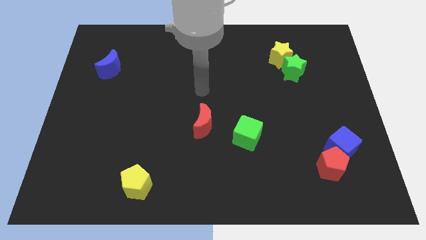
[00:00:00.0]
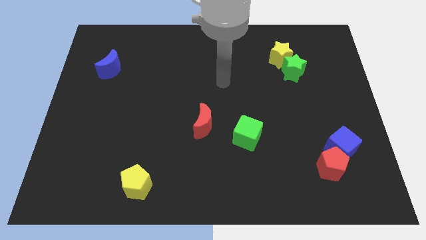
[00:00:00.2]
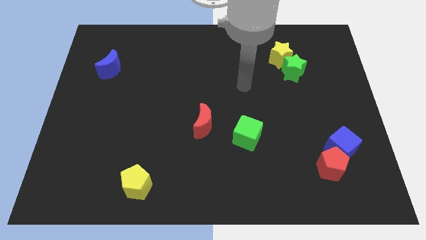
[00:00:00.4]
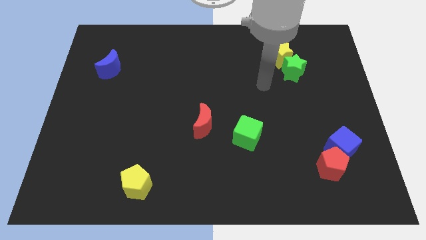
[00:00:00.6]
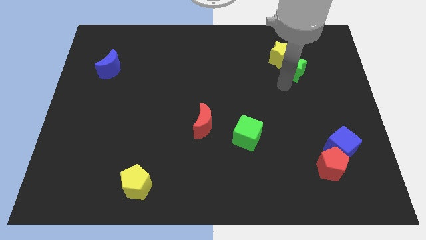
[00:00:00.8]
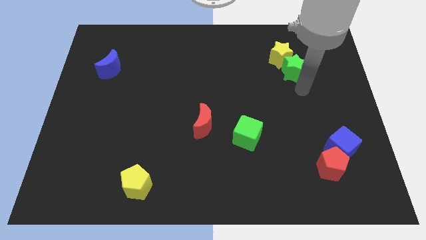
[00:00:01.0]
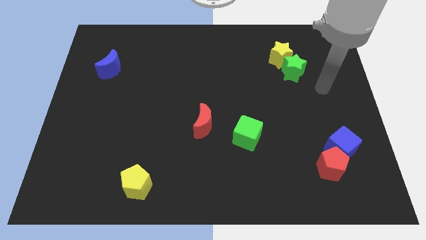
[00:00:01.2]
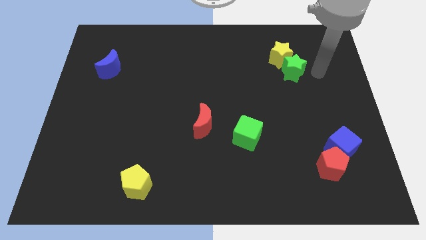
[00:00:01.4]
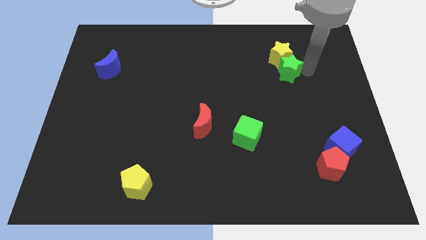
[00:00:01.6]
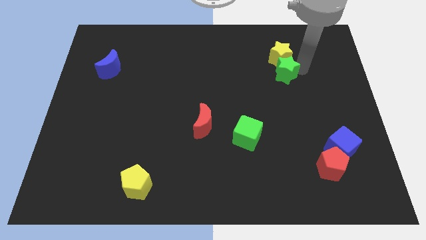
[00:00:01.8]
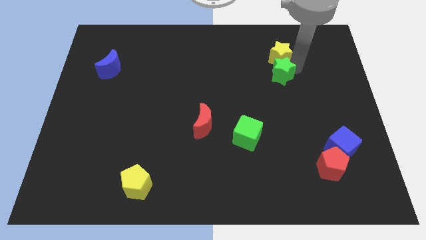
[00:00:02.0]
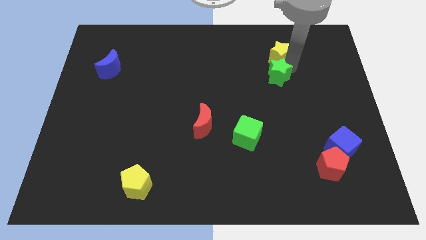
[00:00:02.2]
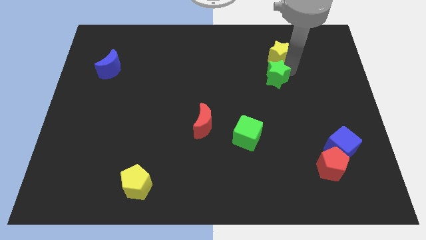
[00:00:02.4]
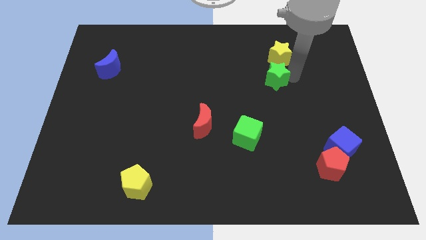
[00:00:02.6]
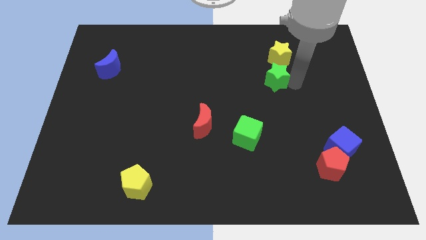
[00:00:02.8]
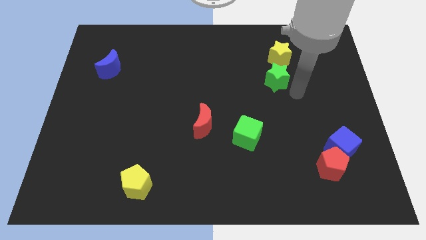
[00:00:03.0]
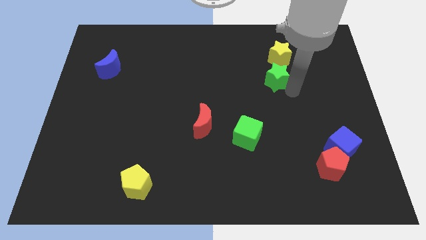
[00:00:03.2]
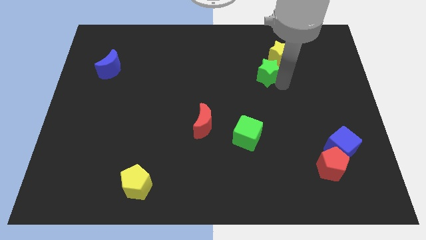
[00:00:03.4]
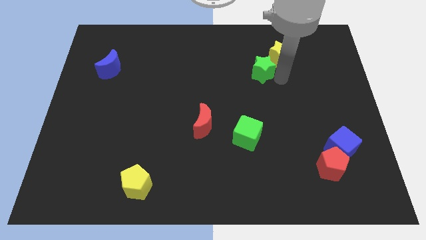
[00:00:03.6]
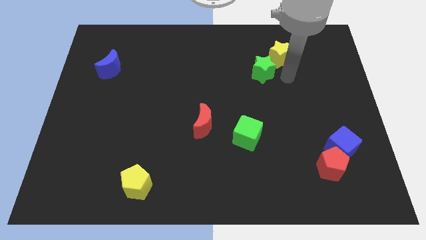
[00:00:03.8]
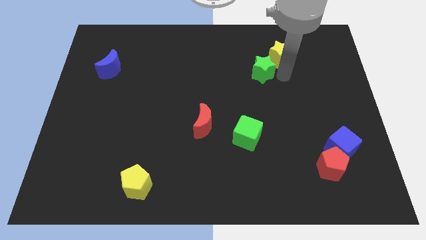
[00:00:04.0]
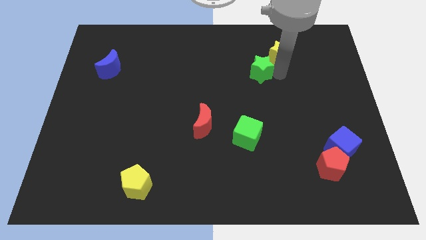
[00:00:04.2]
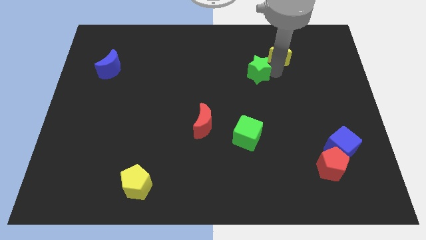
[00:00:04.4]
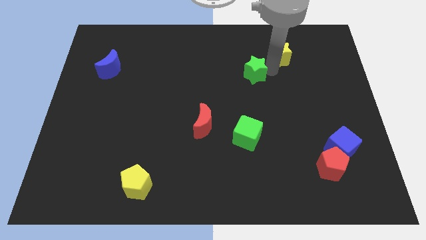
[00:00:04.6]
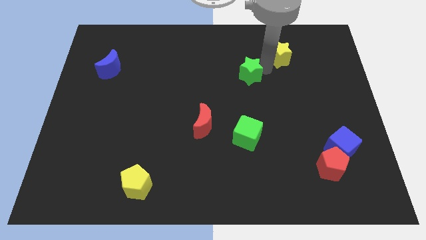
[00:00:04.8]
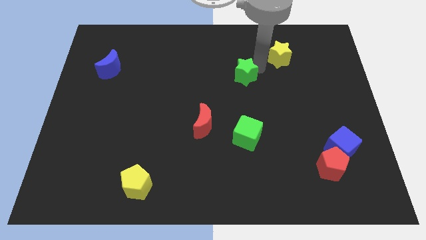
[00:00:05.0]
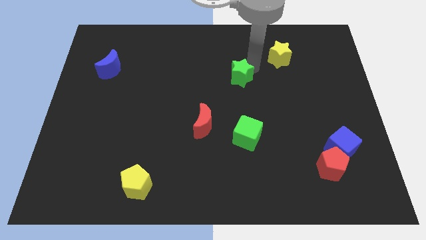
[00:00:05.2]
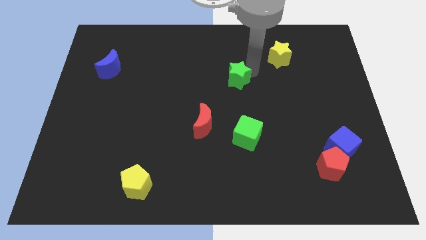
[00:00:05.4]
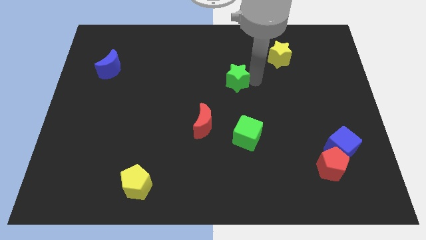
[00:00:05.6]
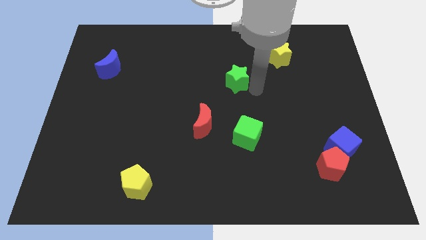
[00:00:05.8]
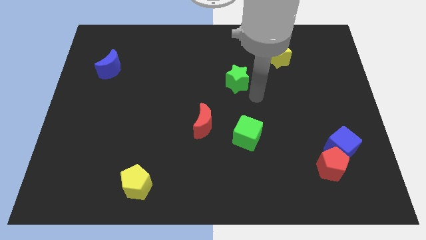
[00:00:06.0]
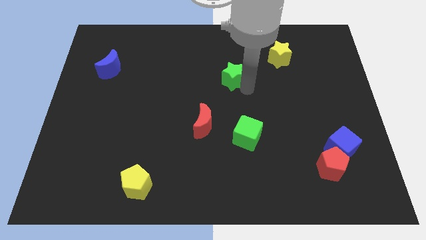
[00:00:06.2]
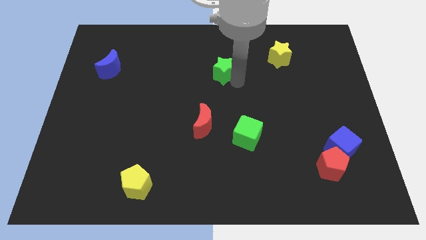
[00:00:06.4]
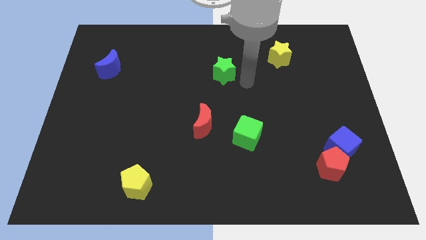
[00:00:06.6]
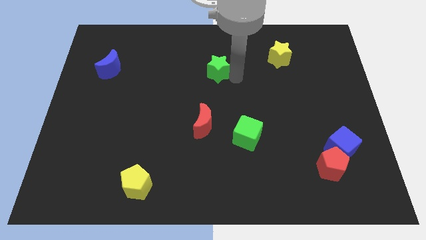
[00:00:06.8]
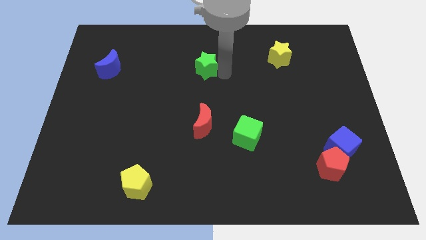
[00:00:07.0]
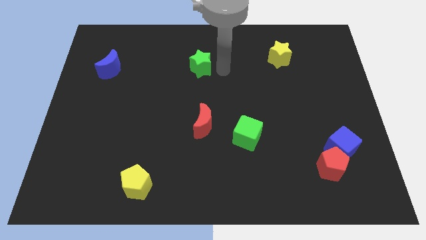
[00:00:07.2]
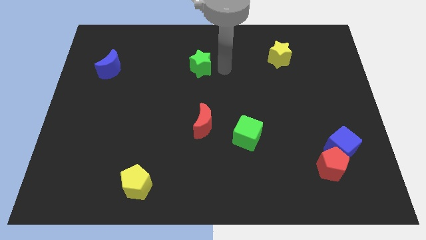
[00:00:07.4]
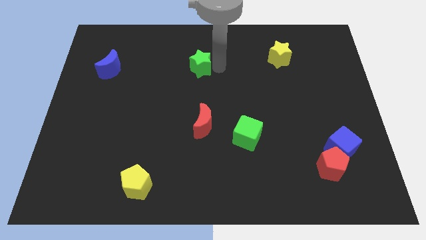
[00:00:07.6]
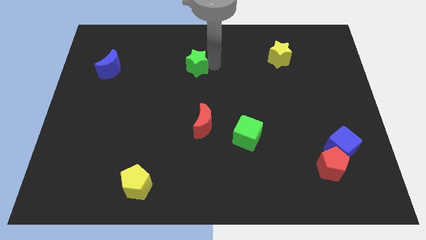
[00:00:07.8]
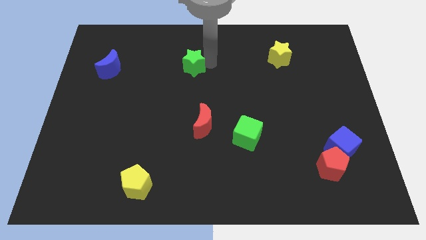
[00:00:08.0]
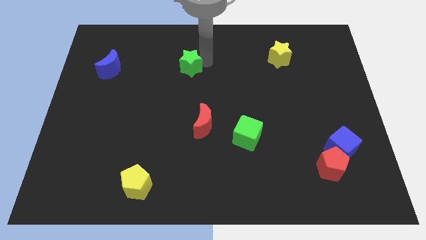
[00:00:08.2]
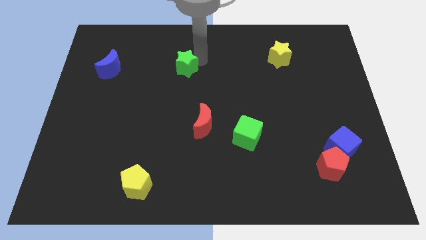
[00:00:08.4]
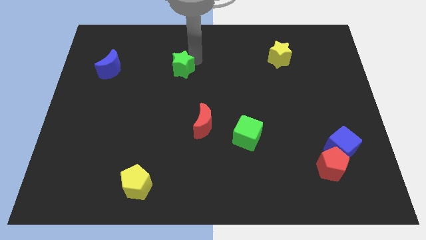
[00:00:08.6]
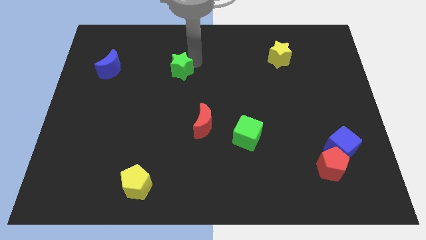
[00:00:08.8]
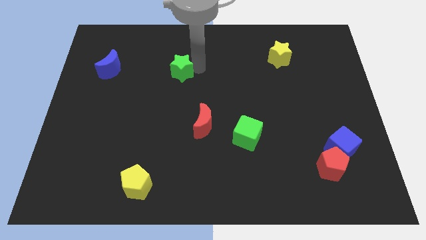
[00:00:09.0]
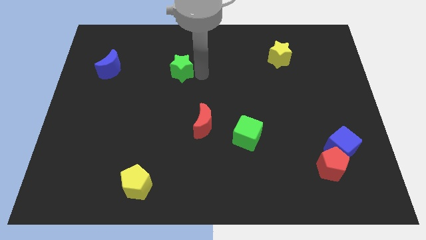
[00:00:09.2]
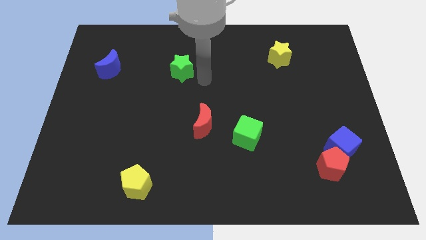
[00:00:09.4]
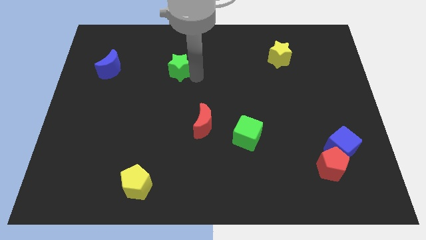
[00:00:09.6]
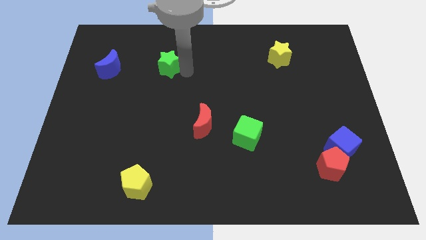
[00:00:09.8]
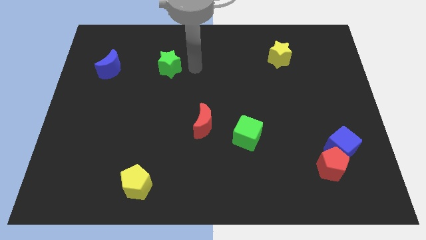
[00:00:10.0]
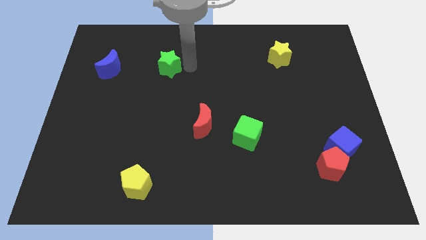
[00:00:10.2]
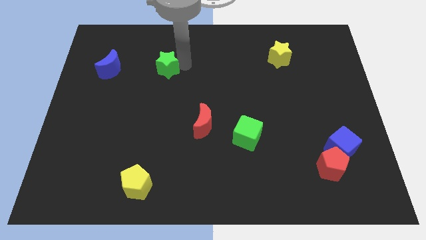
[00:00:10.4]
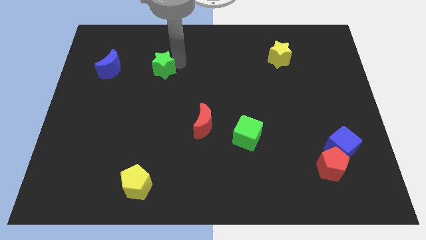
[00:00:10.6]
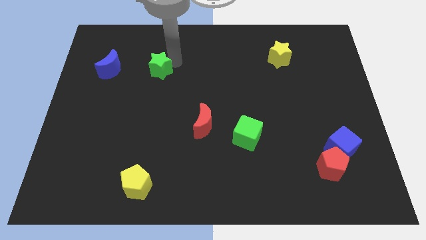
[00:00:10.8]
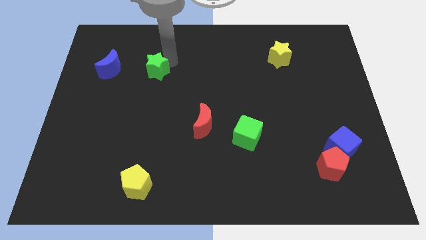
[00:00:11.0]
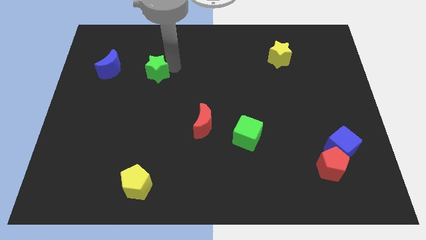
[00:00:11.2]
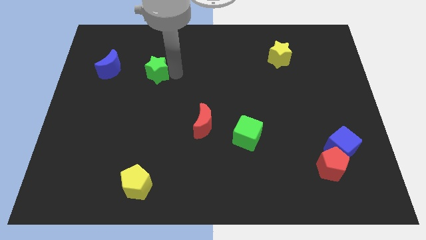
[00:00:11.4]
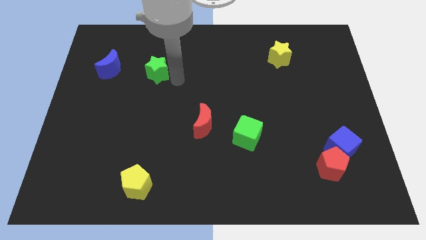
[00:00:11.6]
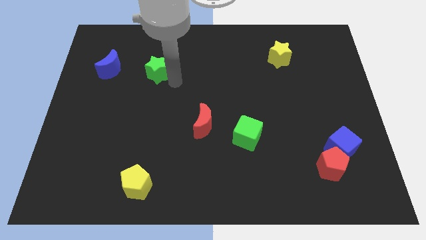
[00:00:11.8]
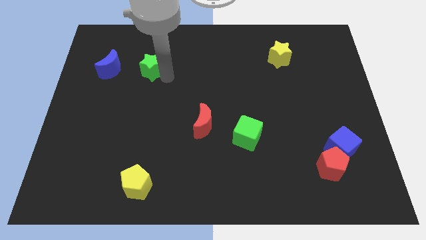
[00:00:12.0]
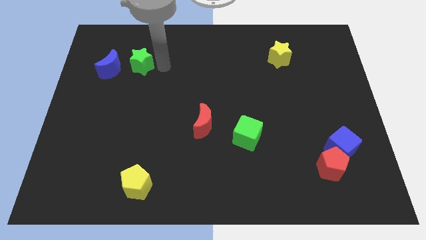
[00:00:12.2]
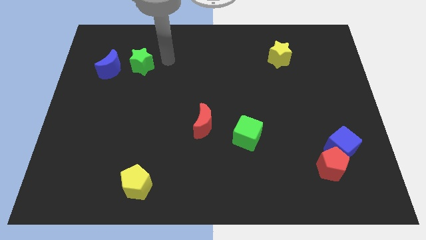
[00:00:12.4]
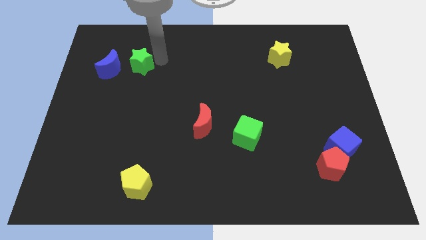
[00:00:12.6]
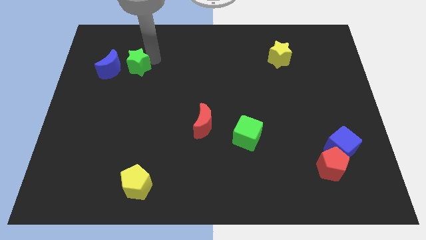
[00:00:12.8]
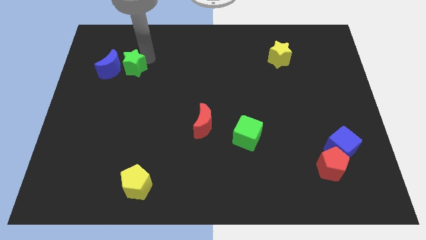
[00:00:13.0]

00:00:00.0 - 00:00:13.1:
put the green star close to the blue moon
